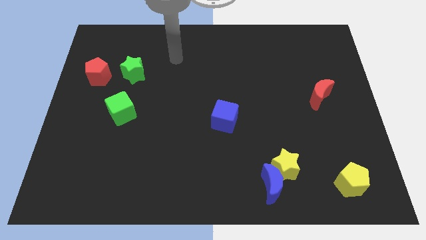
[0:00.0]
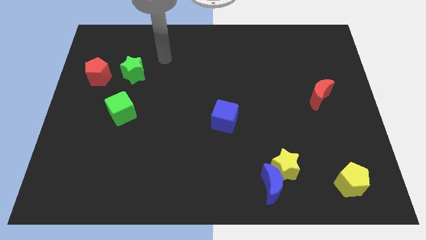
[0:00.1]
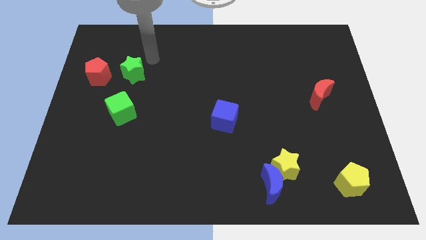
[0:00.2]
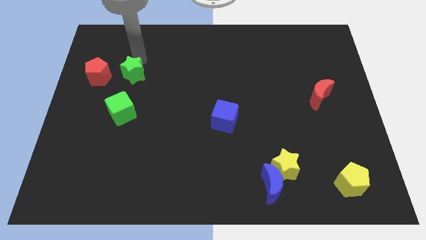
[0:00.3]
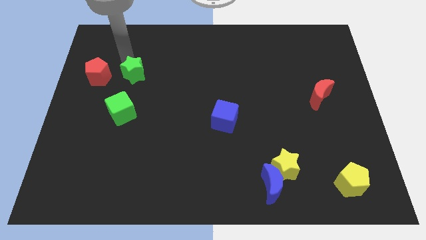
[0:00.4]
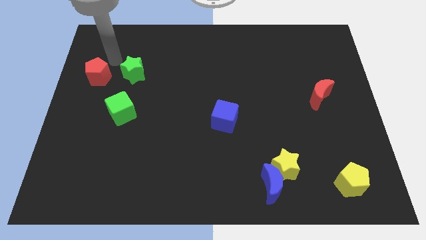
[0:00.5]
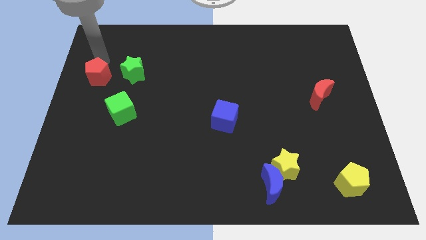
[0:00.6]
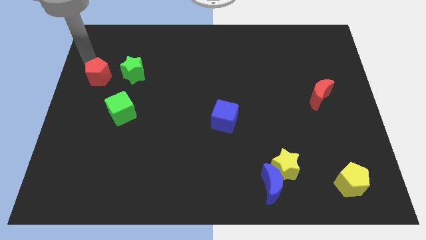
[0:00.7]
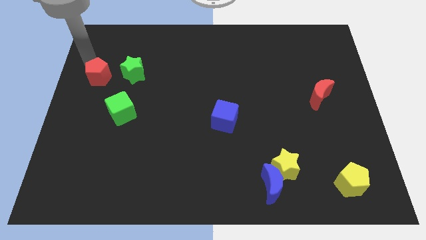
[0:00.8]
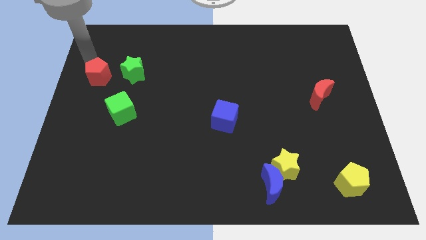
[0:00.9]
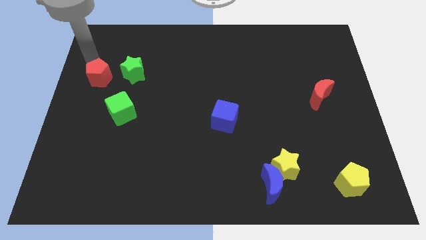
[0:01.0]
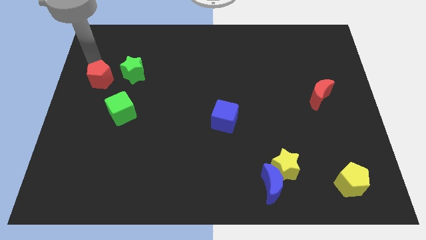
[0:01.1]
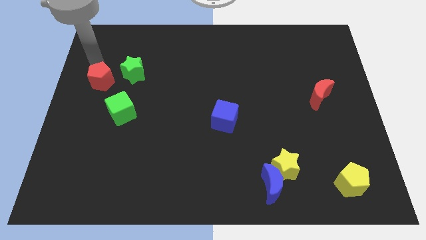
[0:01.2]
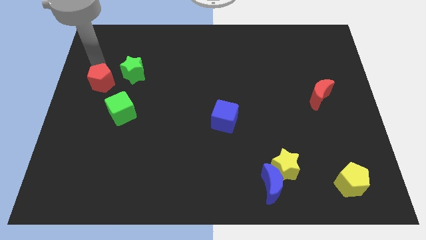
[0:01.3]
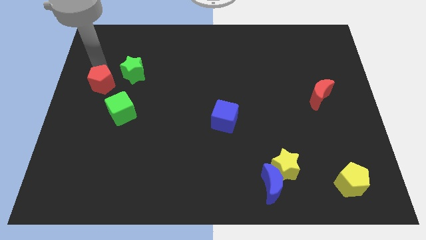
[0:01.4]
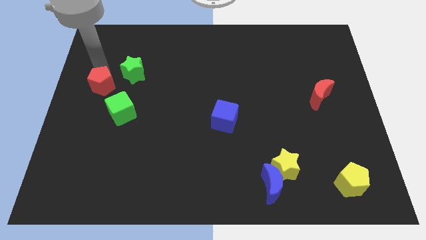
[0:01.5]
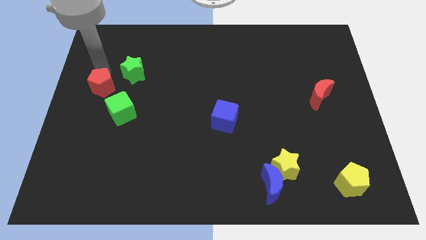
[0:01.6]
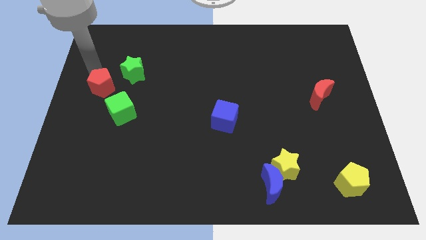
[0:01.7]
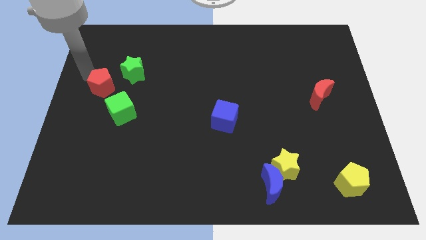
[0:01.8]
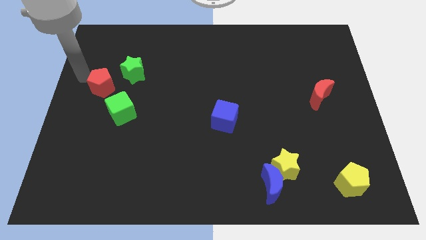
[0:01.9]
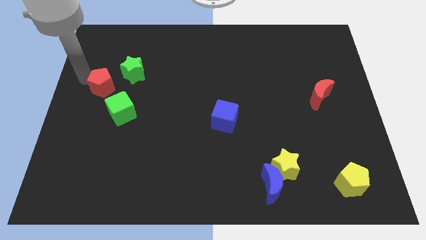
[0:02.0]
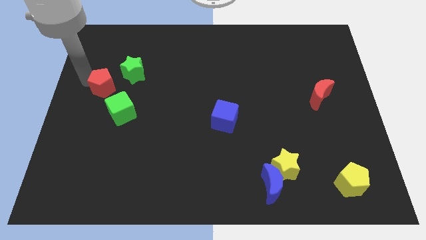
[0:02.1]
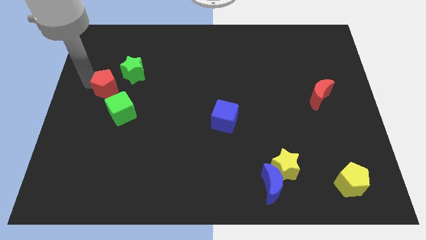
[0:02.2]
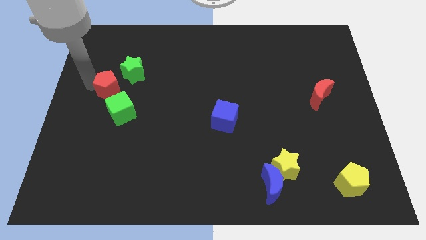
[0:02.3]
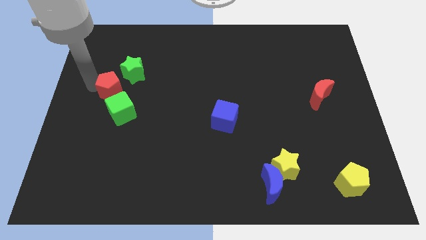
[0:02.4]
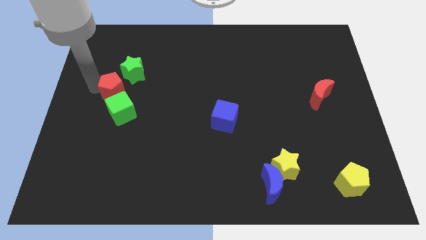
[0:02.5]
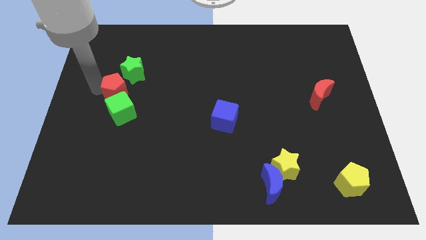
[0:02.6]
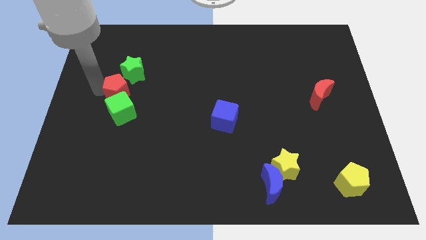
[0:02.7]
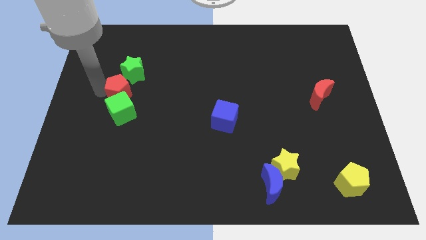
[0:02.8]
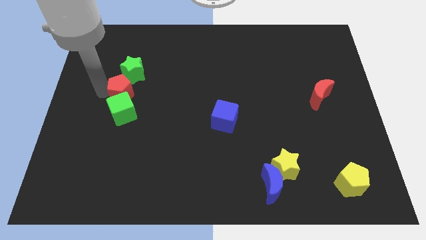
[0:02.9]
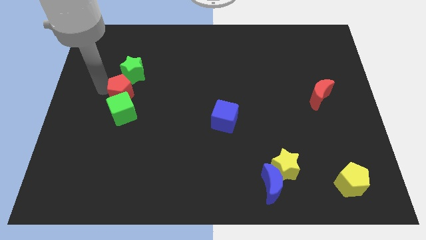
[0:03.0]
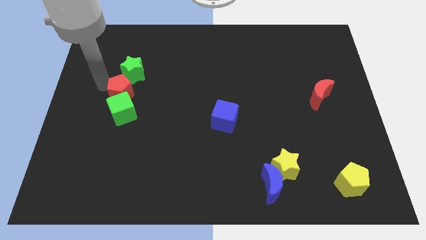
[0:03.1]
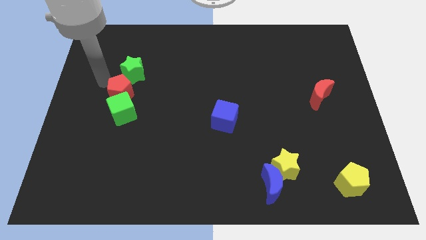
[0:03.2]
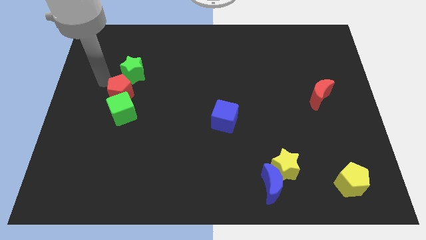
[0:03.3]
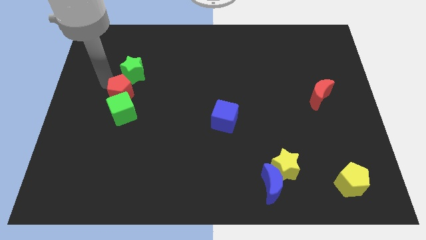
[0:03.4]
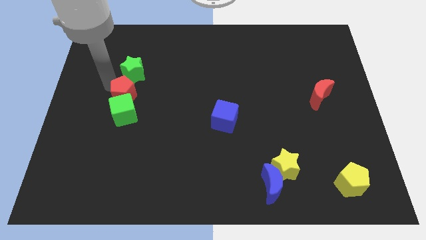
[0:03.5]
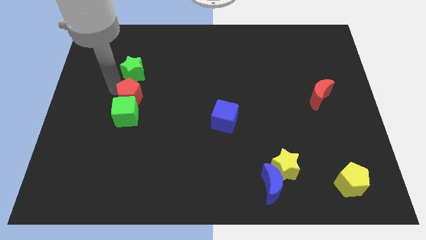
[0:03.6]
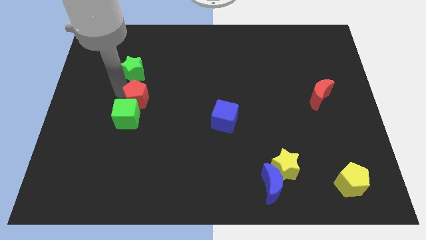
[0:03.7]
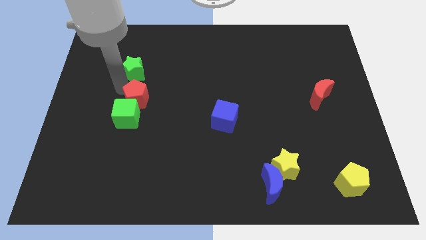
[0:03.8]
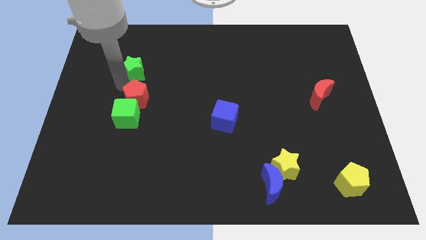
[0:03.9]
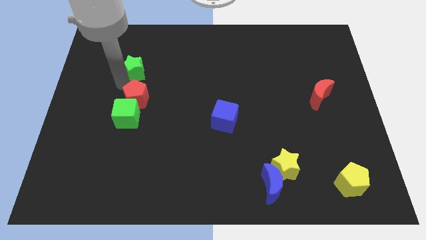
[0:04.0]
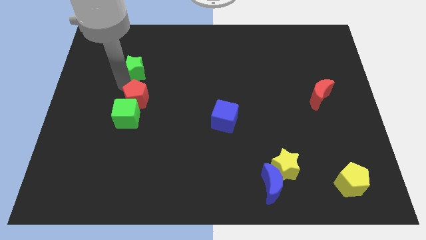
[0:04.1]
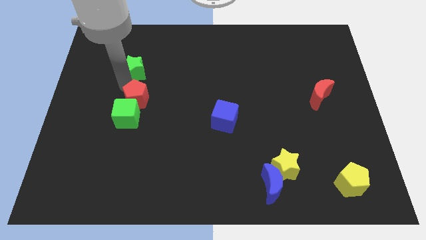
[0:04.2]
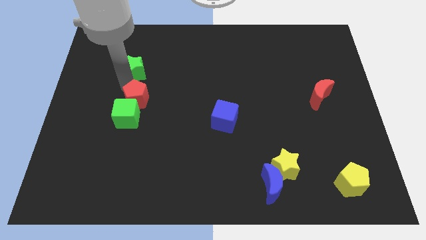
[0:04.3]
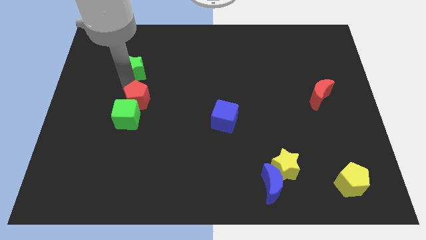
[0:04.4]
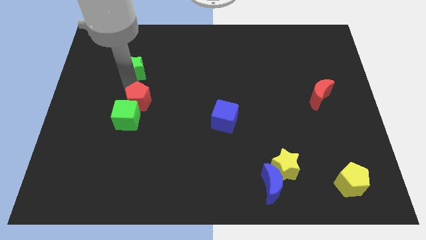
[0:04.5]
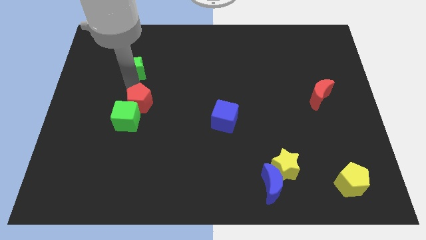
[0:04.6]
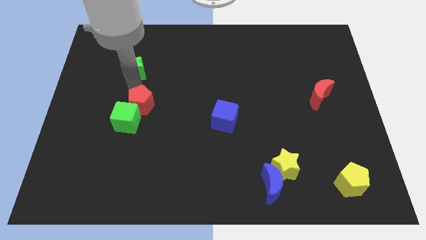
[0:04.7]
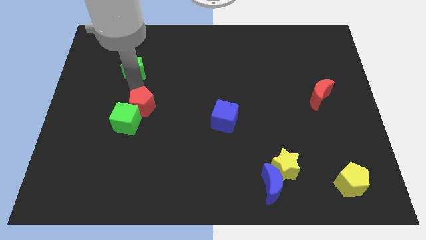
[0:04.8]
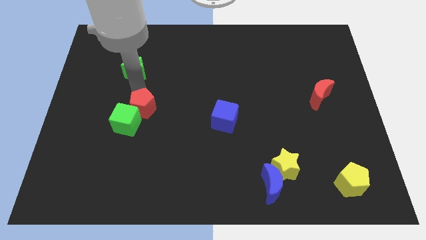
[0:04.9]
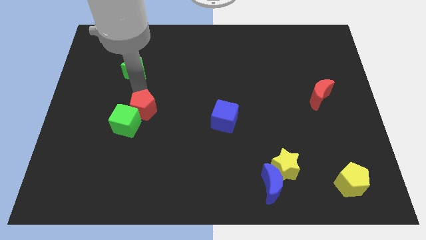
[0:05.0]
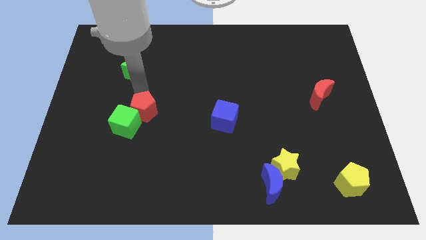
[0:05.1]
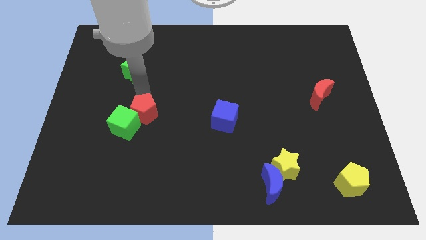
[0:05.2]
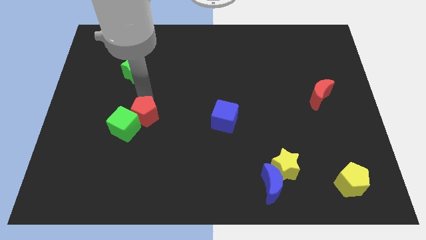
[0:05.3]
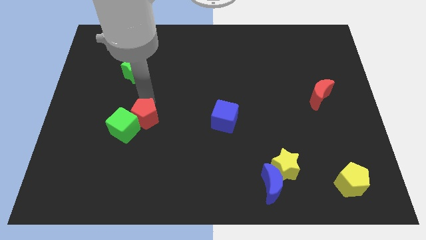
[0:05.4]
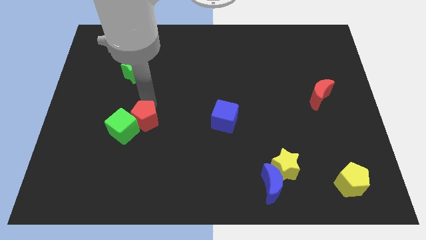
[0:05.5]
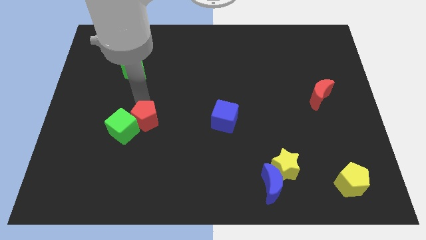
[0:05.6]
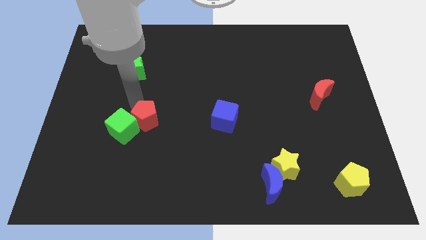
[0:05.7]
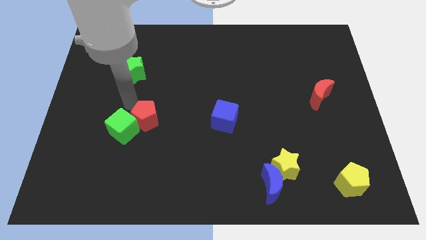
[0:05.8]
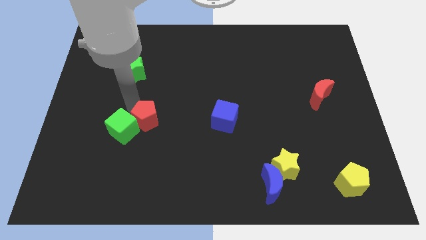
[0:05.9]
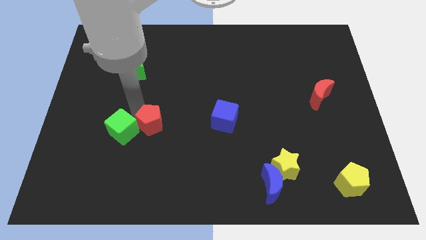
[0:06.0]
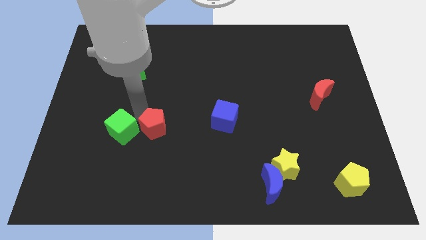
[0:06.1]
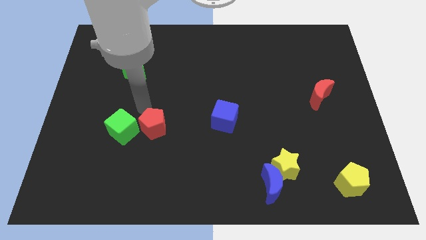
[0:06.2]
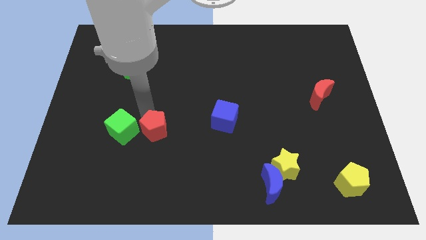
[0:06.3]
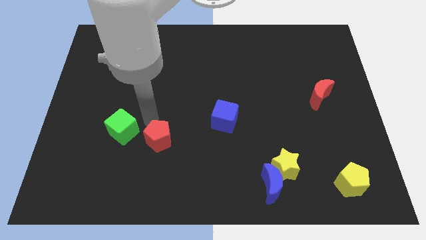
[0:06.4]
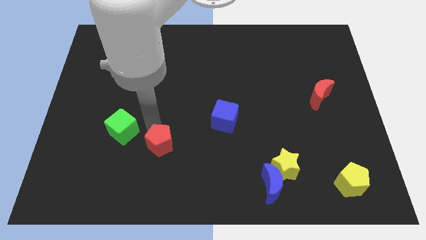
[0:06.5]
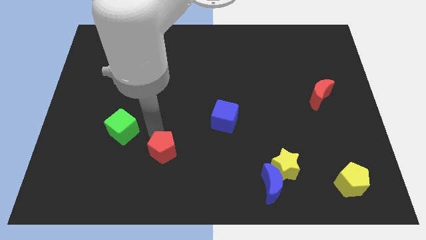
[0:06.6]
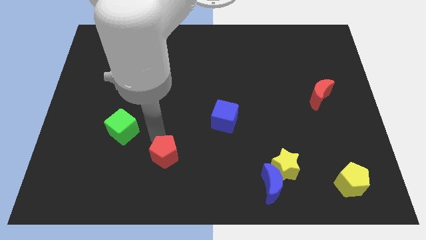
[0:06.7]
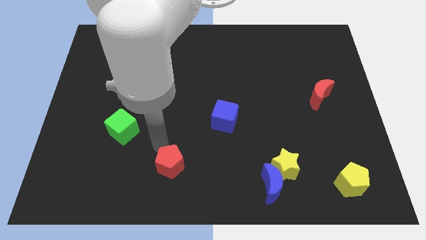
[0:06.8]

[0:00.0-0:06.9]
push the red pentagon to the bottom side
